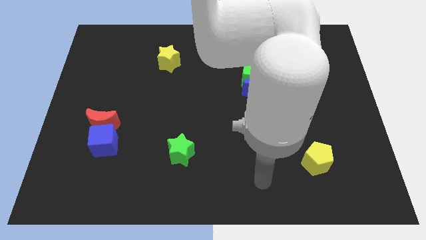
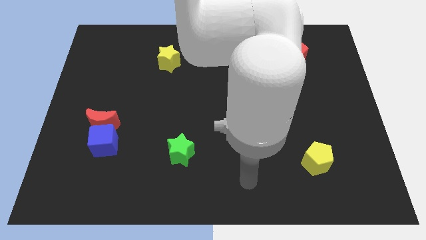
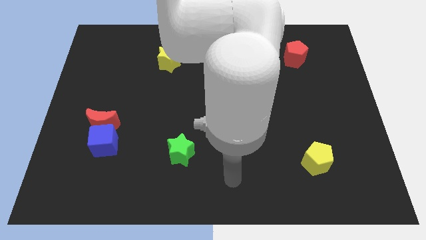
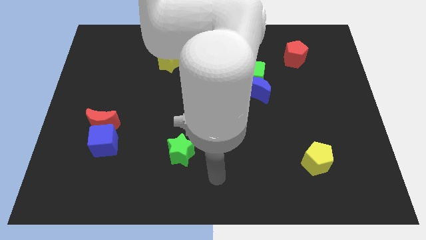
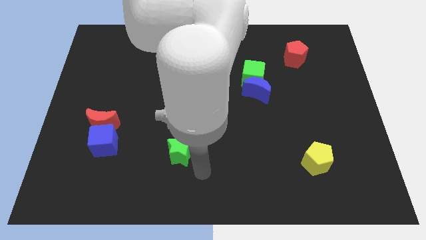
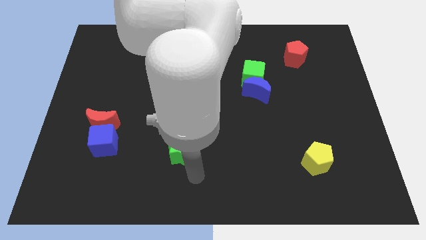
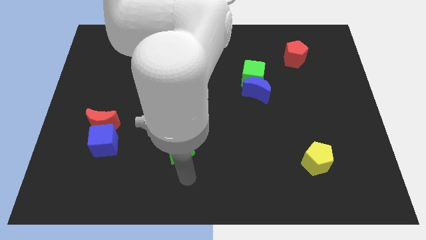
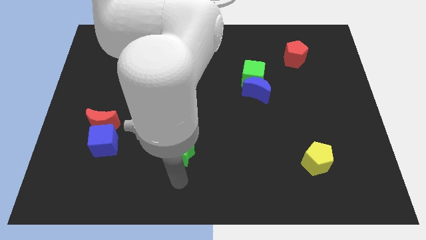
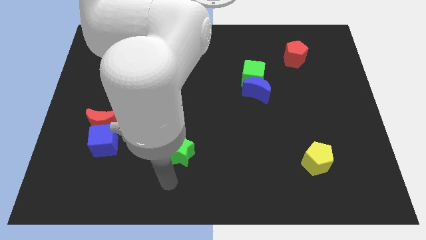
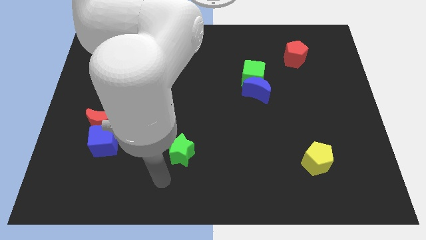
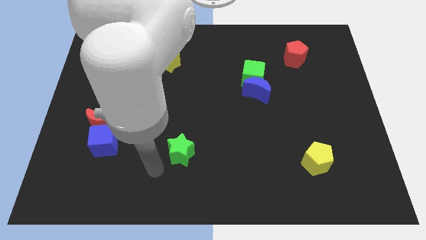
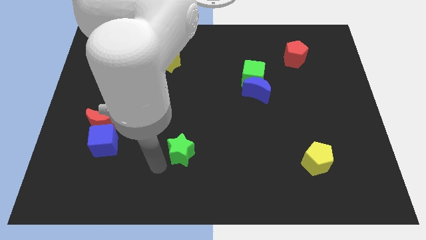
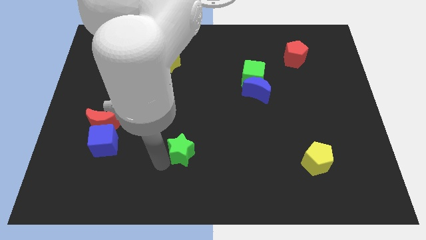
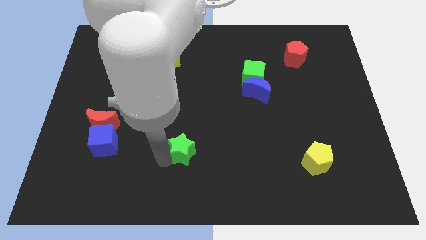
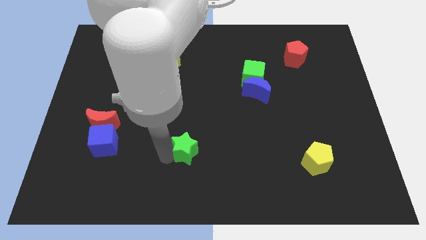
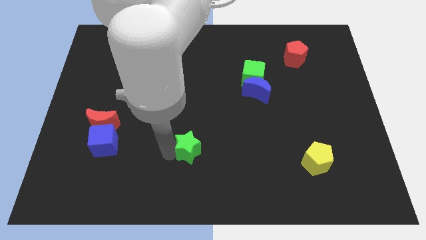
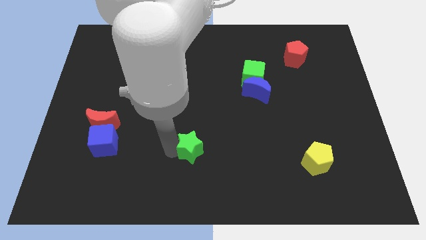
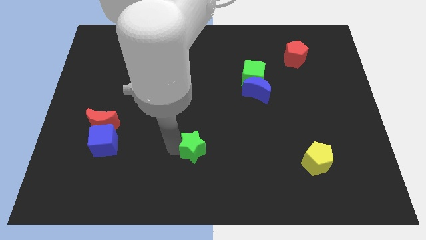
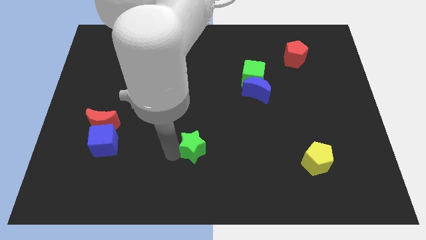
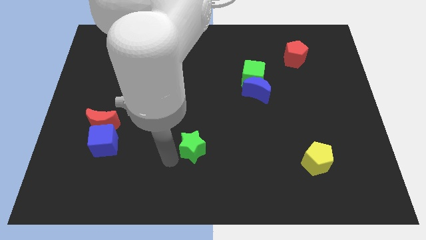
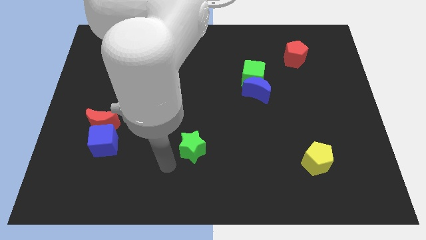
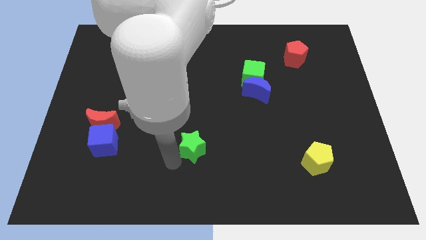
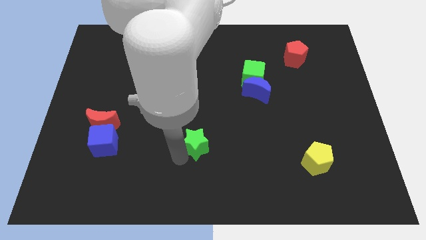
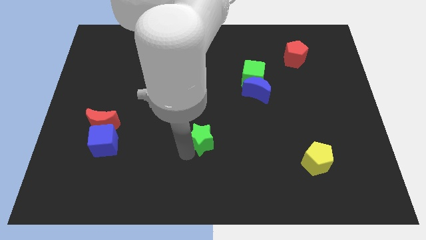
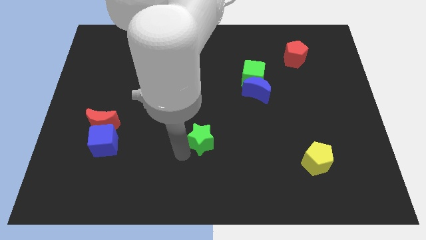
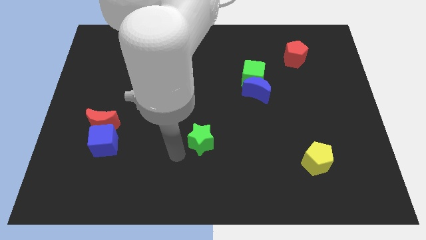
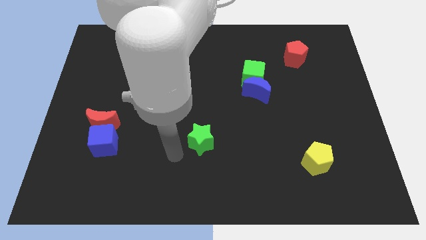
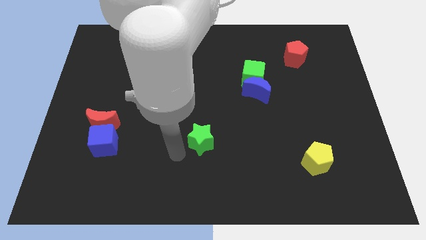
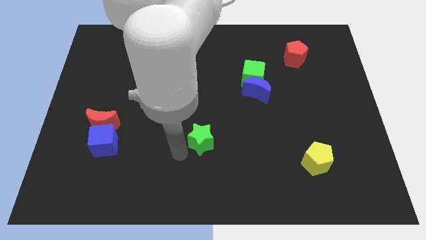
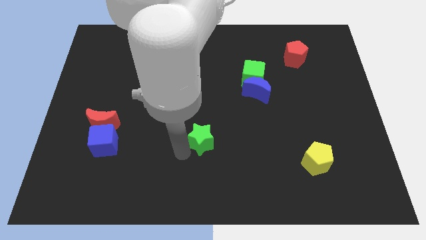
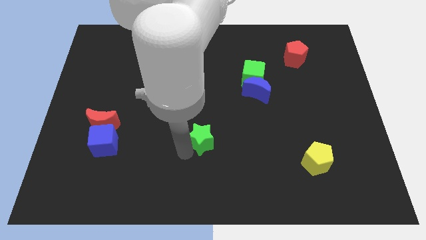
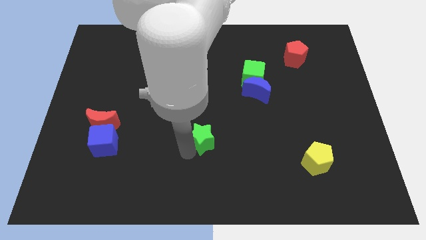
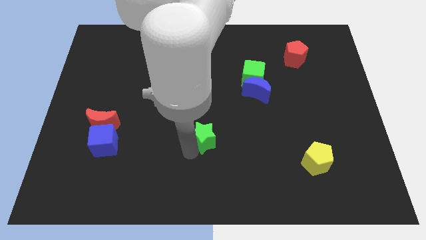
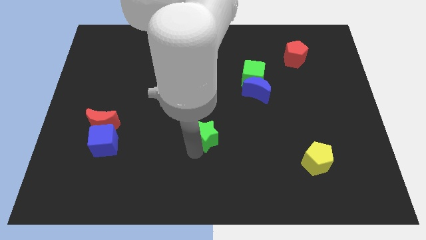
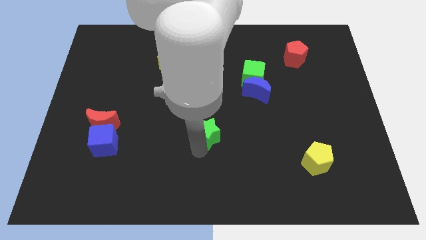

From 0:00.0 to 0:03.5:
slightly move the green star up and right

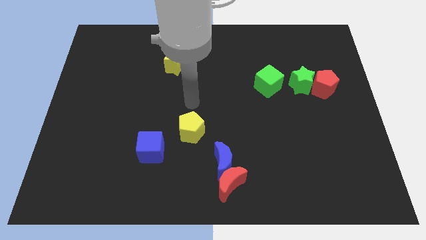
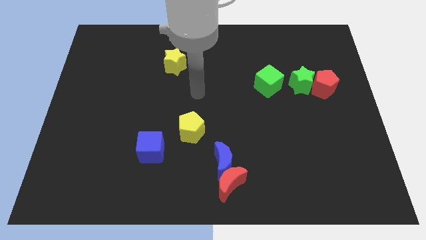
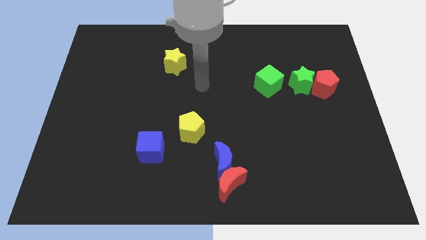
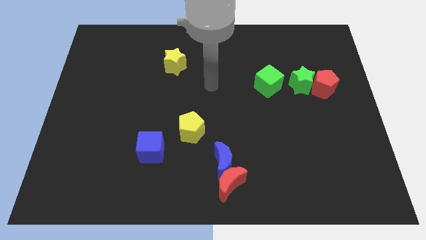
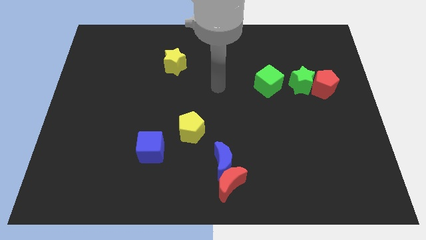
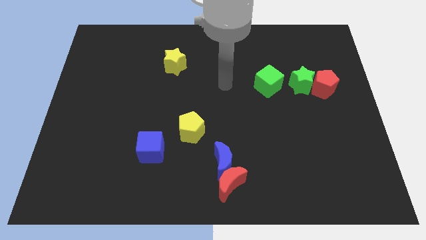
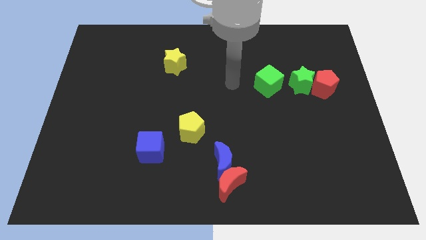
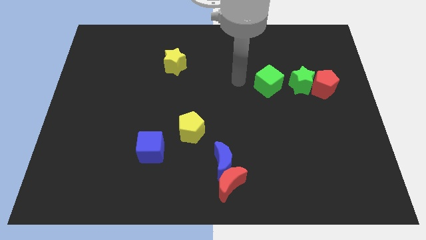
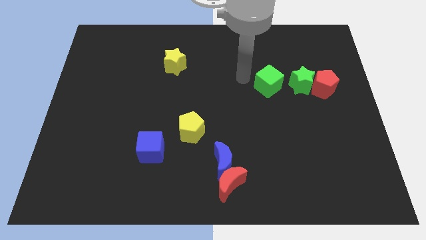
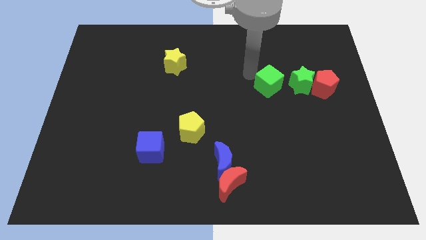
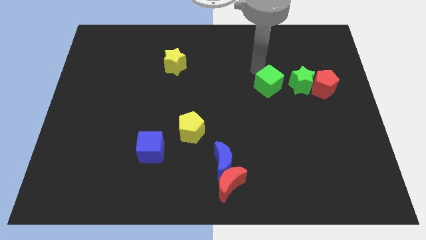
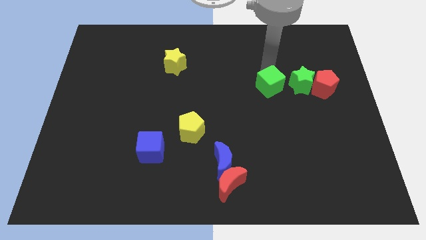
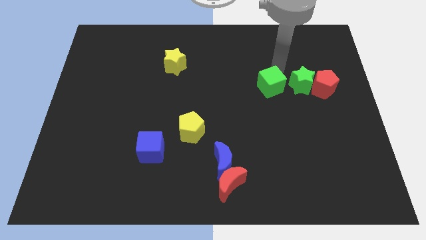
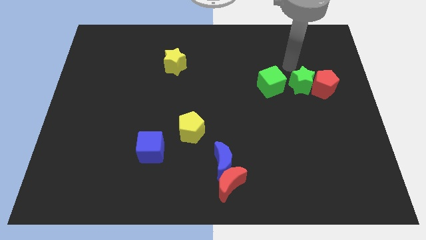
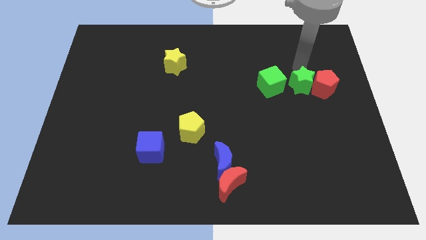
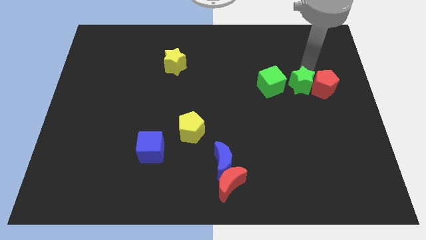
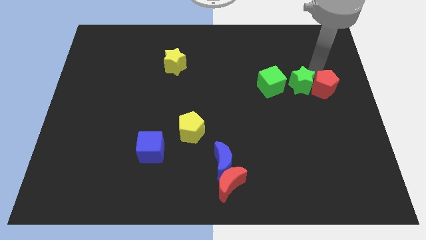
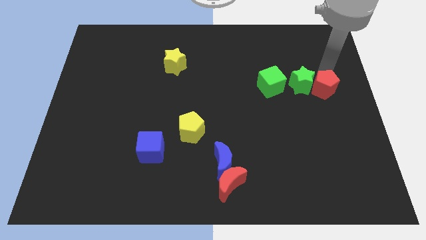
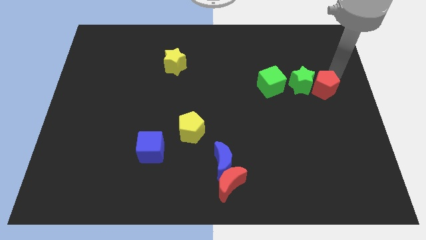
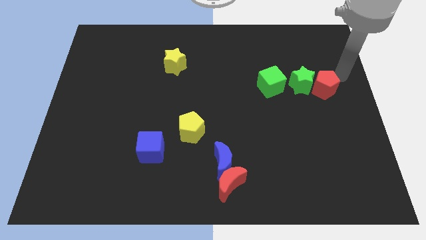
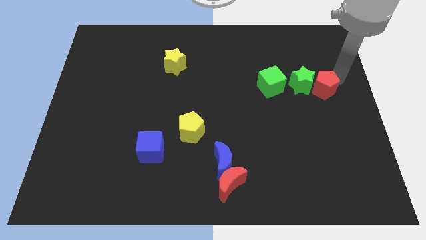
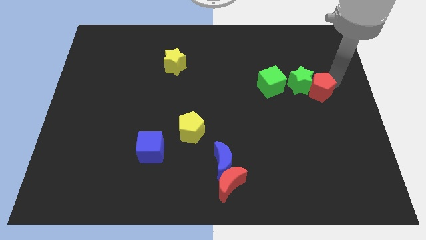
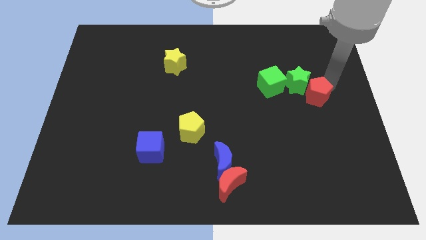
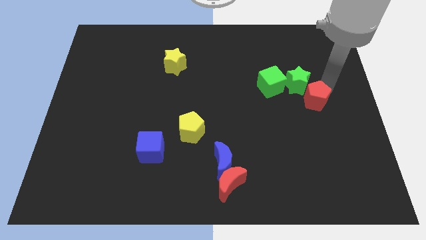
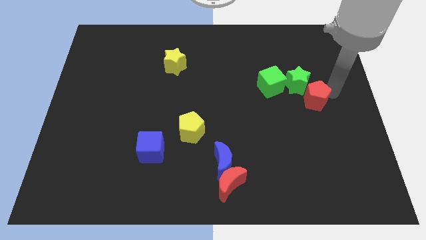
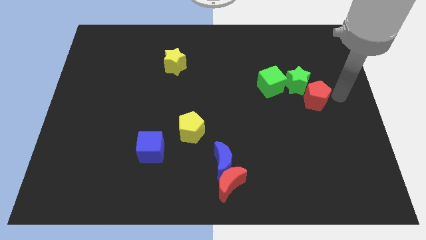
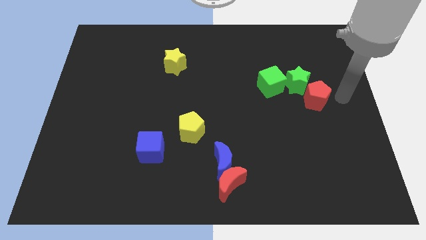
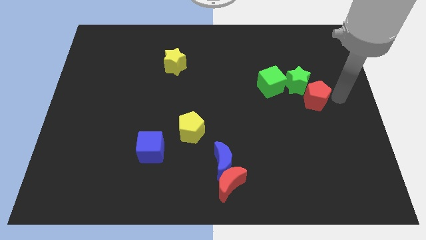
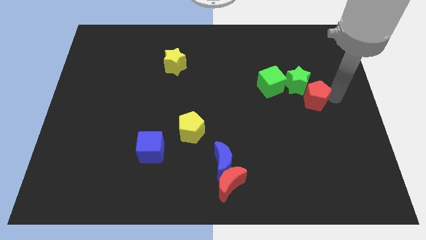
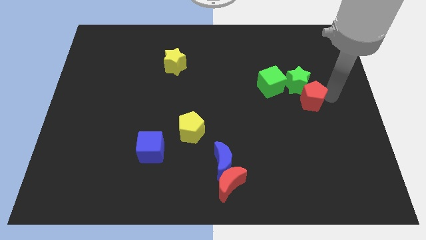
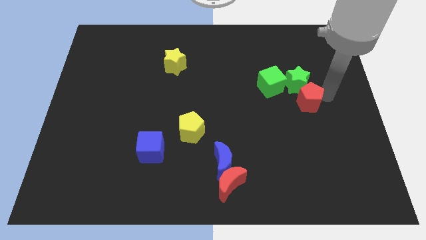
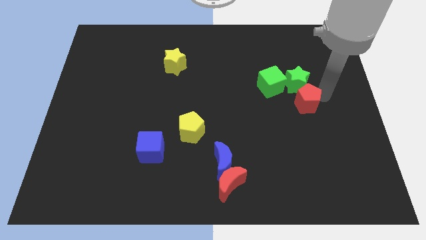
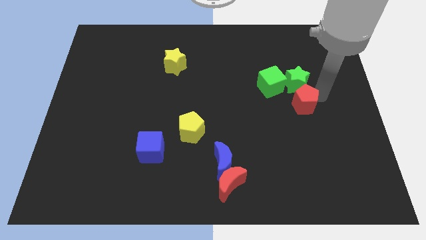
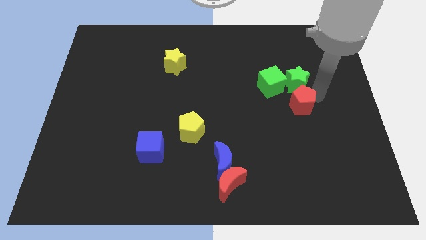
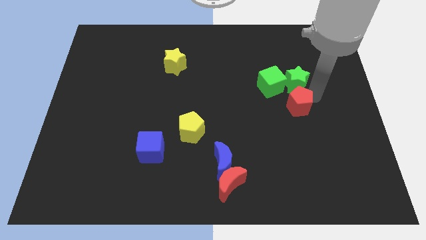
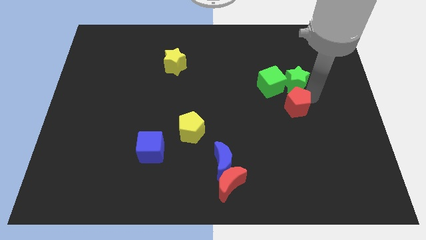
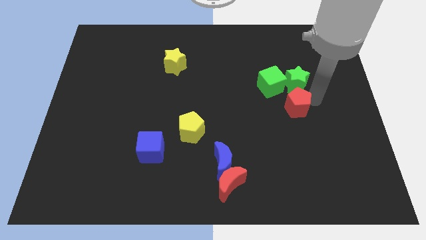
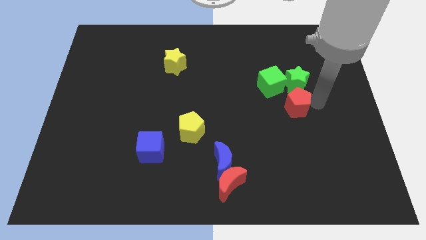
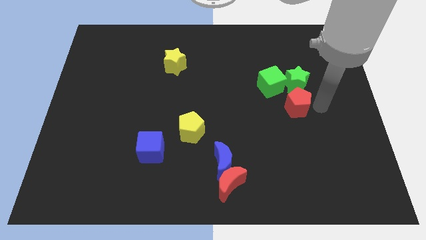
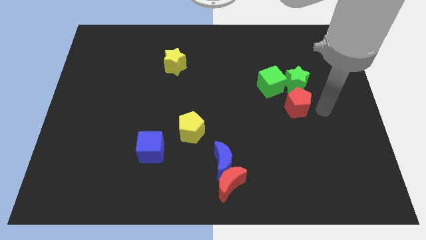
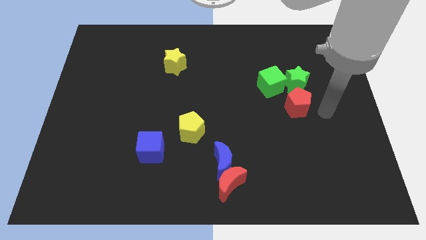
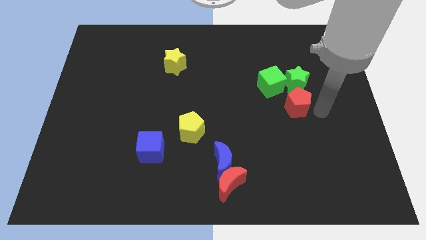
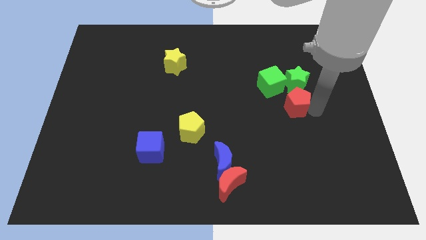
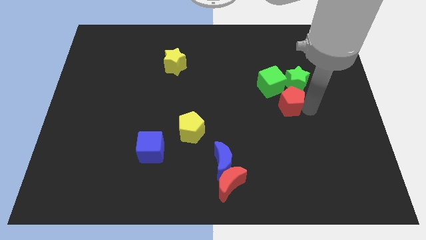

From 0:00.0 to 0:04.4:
push the red pentagon a little bit to the left
